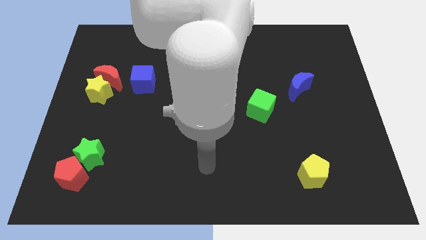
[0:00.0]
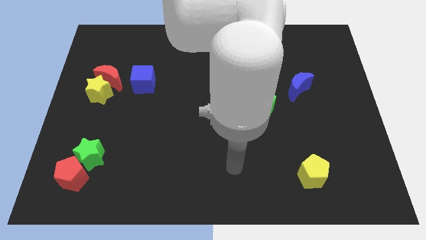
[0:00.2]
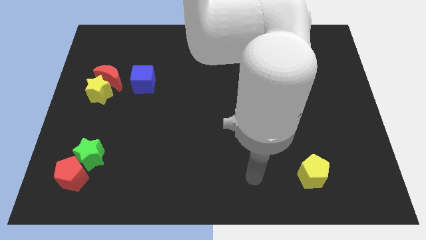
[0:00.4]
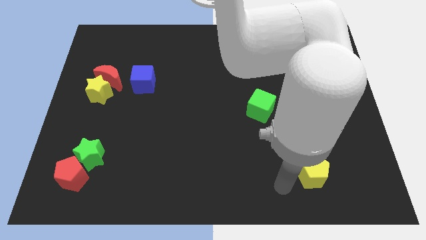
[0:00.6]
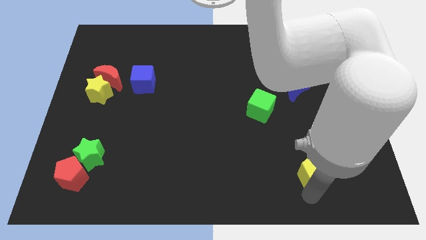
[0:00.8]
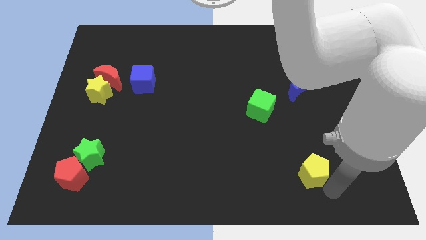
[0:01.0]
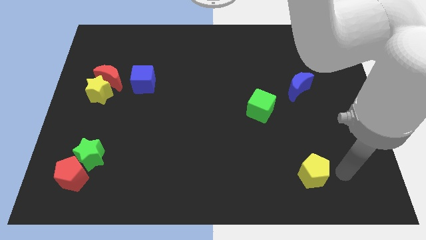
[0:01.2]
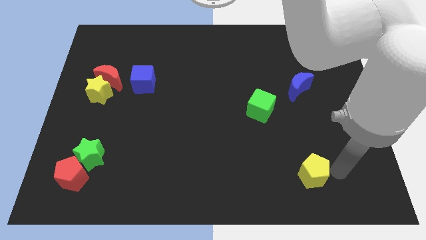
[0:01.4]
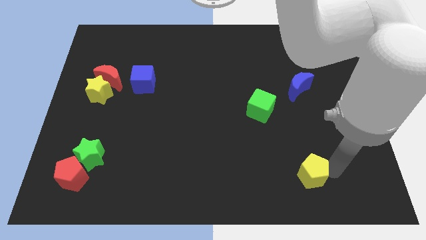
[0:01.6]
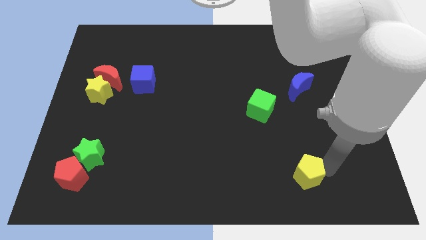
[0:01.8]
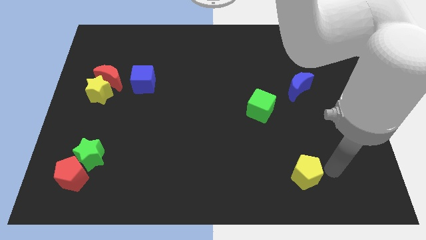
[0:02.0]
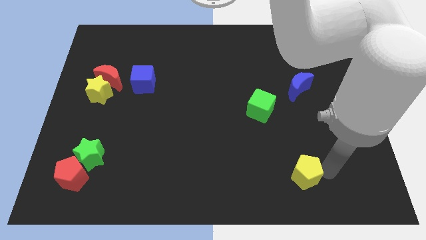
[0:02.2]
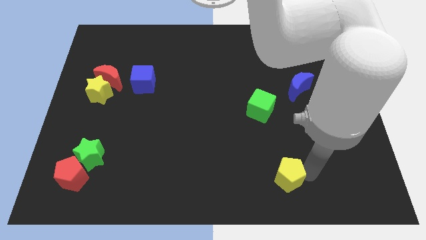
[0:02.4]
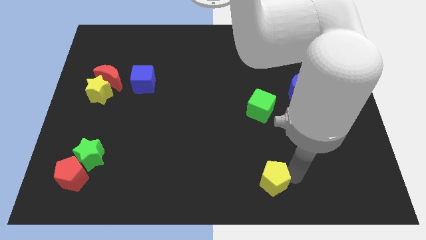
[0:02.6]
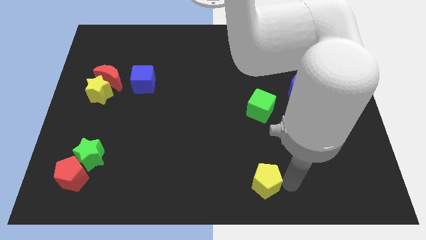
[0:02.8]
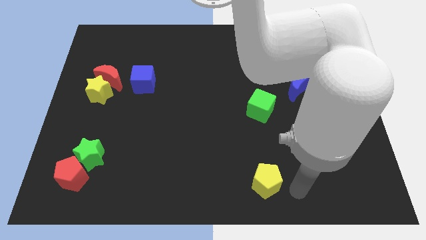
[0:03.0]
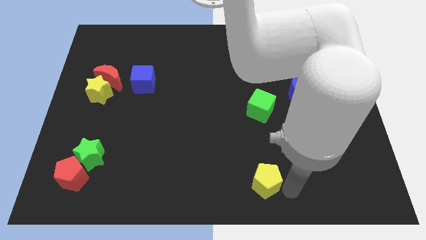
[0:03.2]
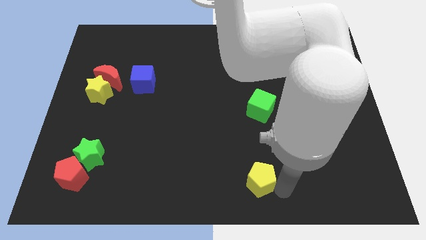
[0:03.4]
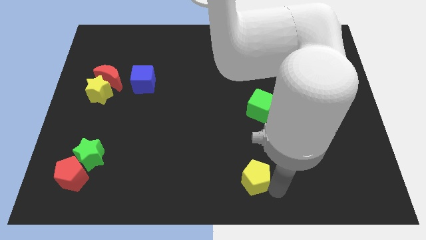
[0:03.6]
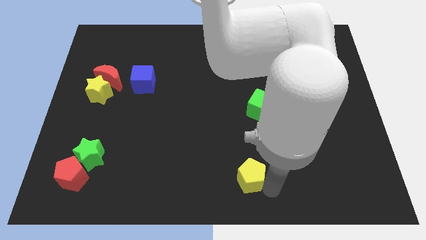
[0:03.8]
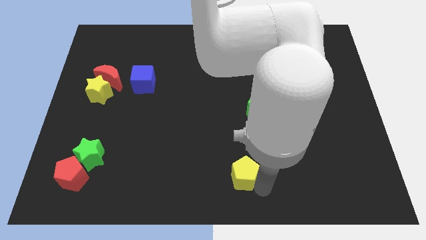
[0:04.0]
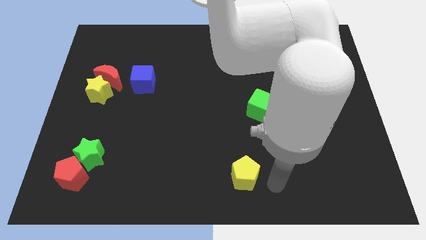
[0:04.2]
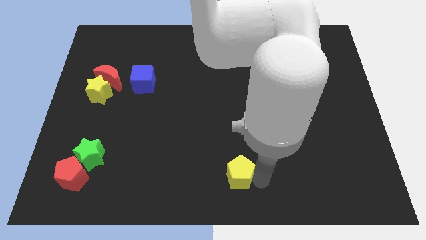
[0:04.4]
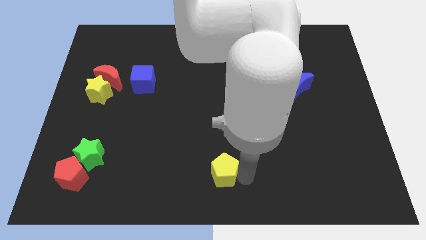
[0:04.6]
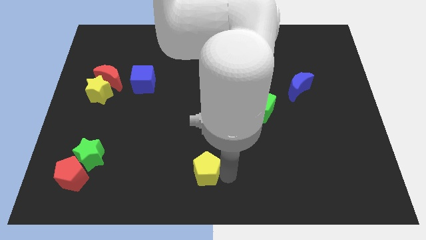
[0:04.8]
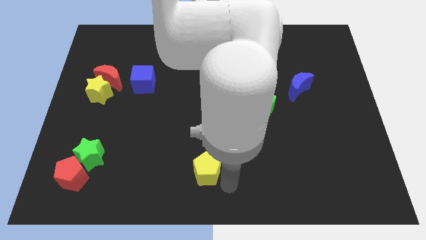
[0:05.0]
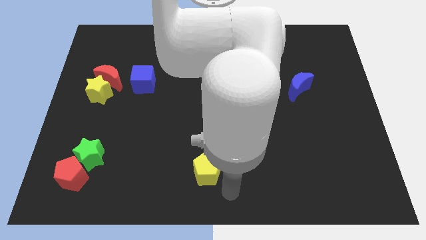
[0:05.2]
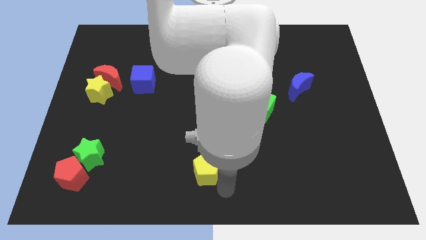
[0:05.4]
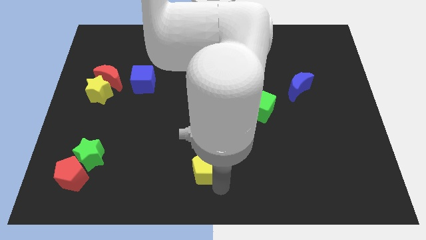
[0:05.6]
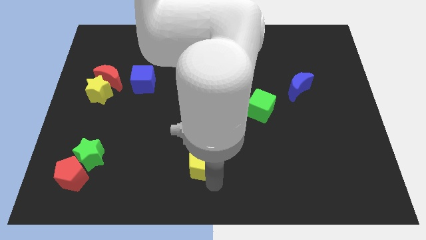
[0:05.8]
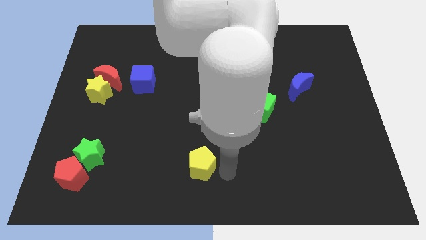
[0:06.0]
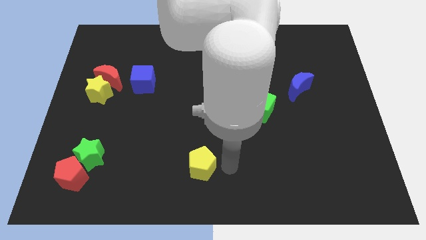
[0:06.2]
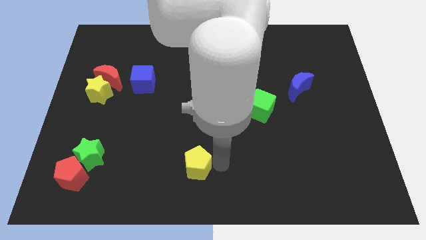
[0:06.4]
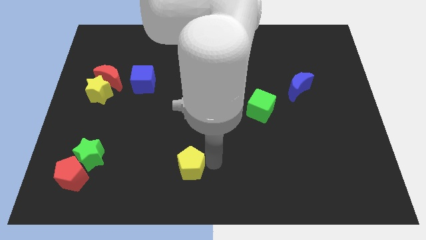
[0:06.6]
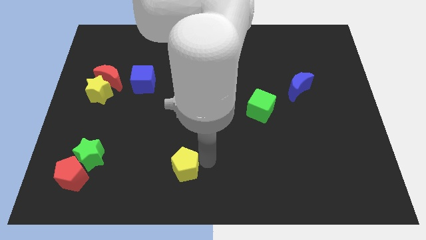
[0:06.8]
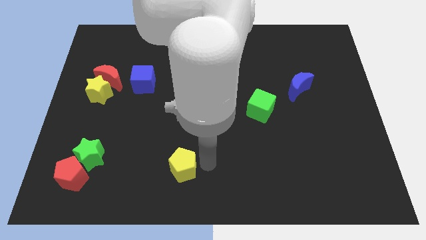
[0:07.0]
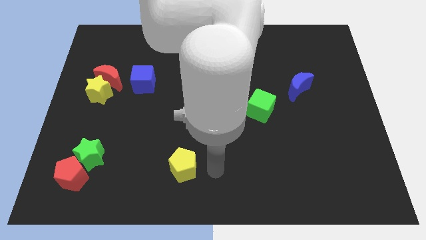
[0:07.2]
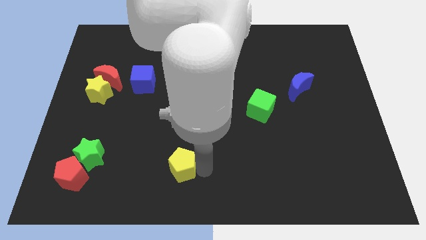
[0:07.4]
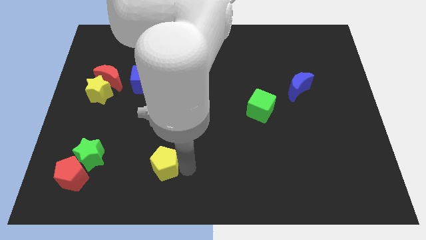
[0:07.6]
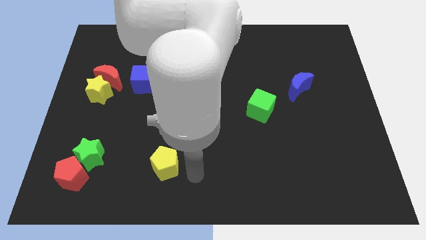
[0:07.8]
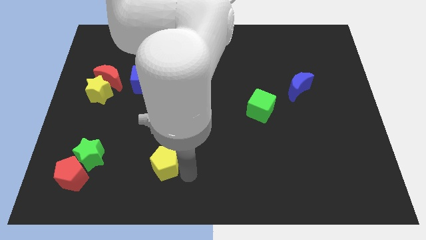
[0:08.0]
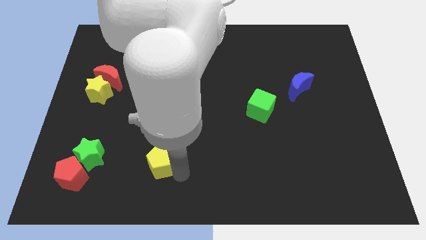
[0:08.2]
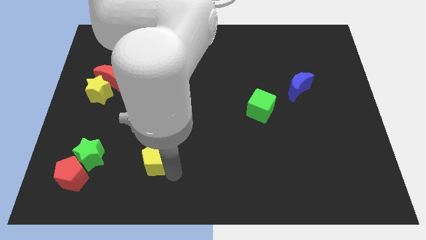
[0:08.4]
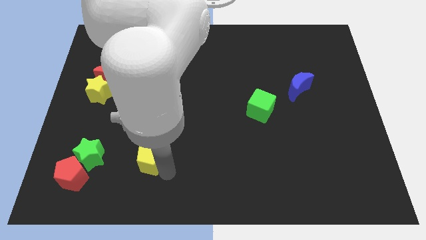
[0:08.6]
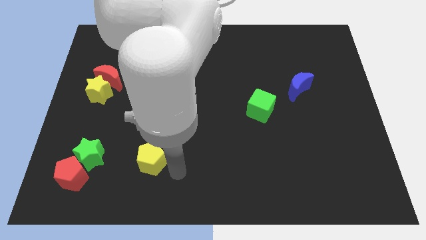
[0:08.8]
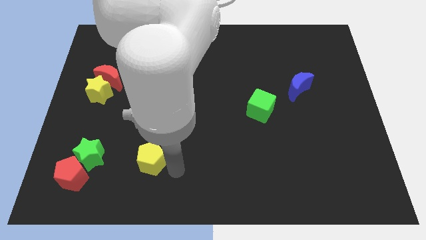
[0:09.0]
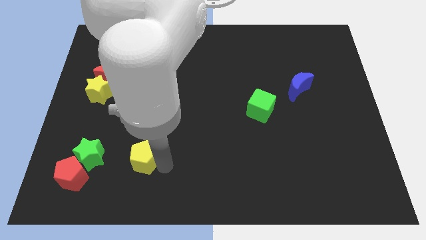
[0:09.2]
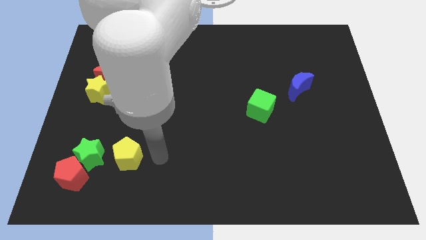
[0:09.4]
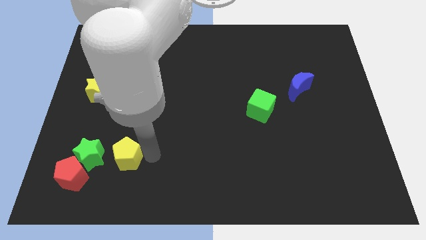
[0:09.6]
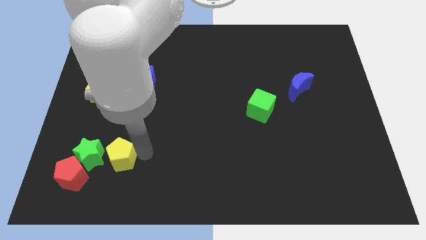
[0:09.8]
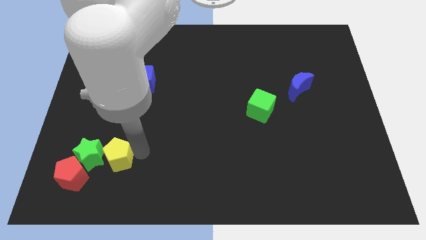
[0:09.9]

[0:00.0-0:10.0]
move the yellow pentagon next to the green star

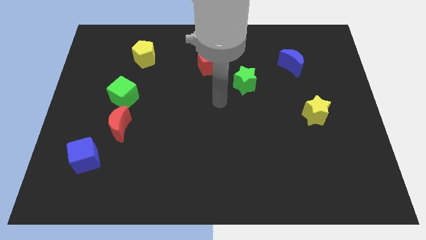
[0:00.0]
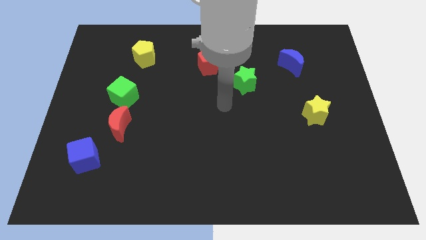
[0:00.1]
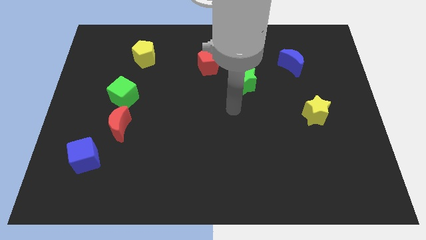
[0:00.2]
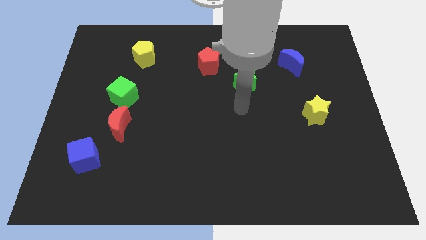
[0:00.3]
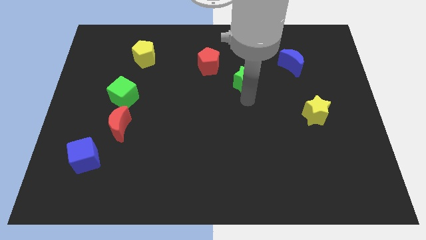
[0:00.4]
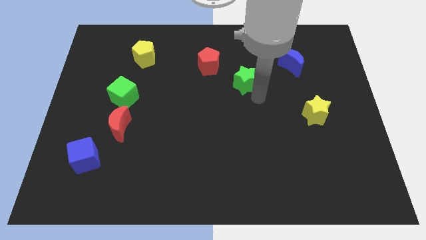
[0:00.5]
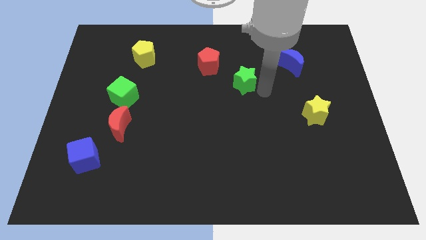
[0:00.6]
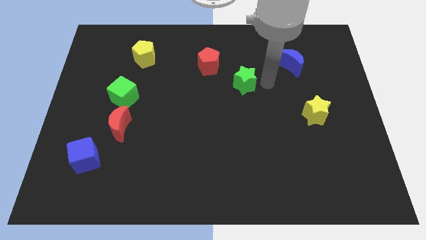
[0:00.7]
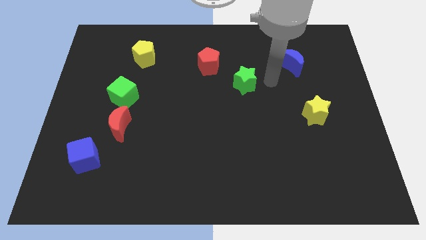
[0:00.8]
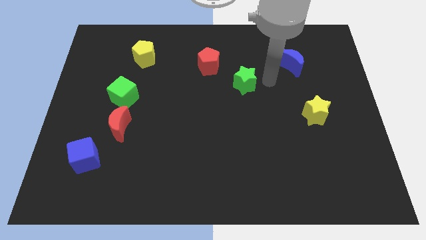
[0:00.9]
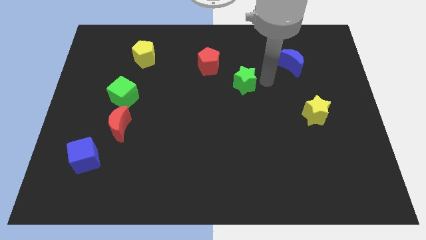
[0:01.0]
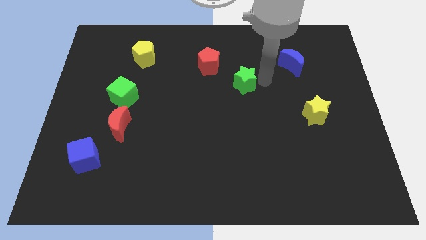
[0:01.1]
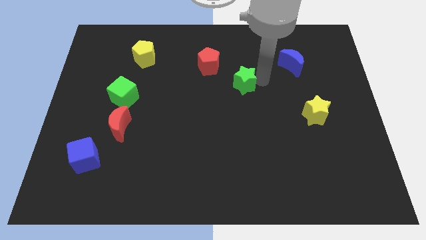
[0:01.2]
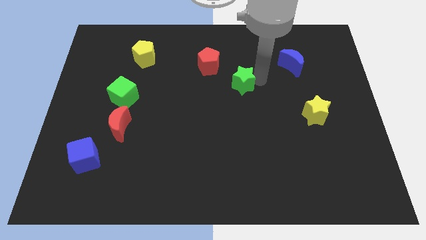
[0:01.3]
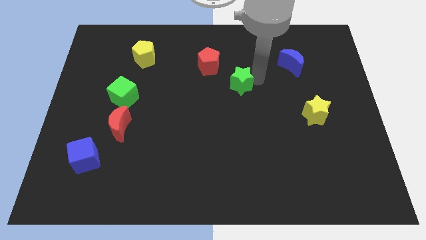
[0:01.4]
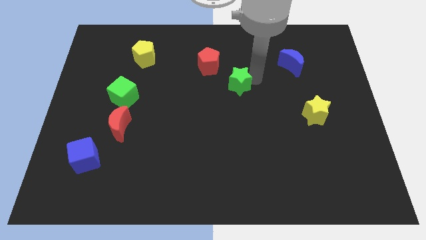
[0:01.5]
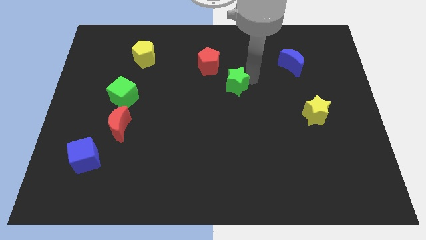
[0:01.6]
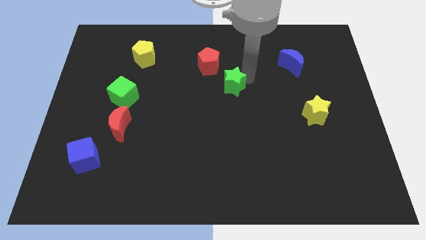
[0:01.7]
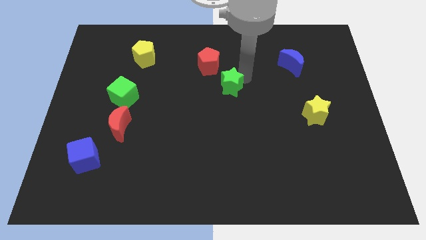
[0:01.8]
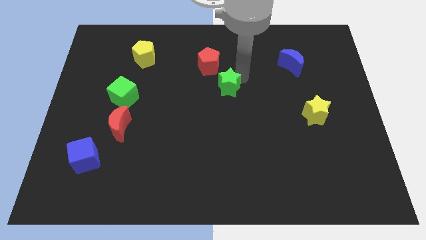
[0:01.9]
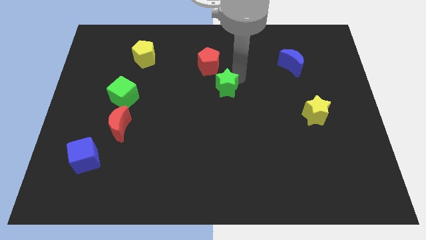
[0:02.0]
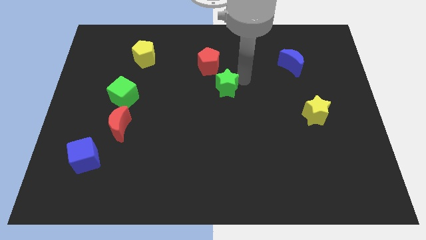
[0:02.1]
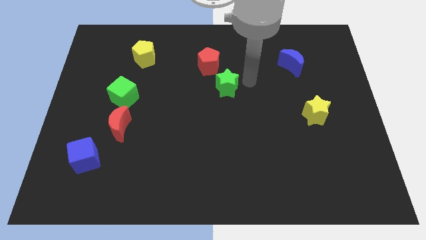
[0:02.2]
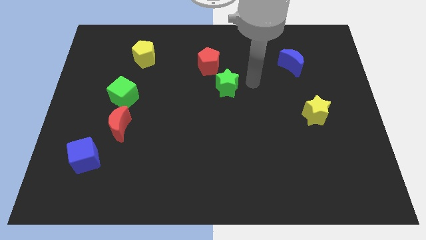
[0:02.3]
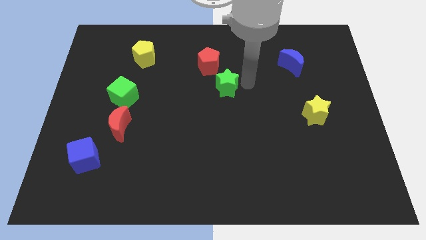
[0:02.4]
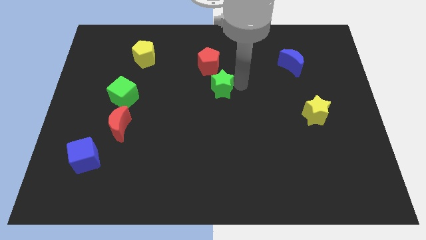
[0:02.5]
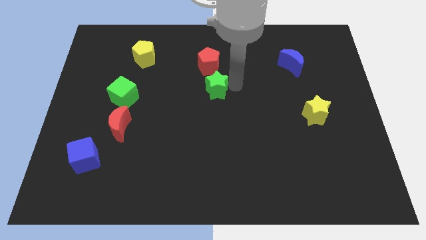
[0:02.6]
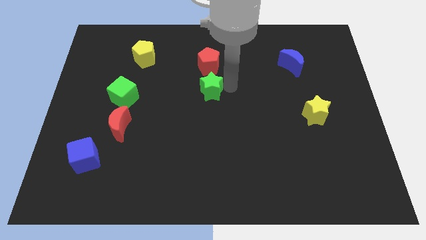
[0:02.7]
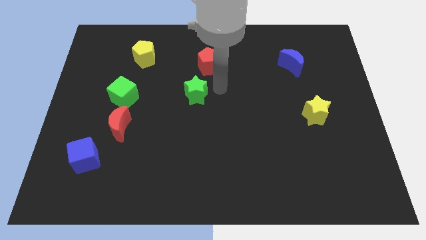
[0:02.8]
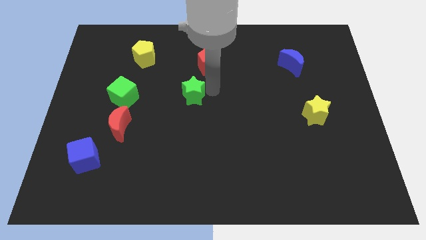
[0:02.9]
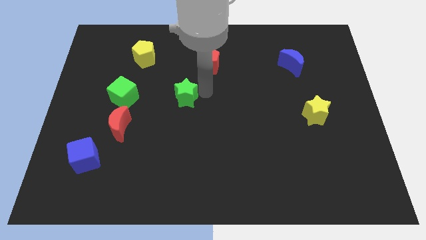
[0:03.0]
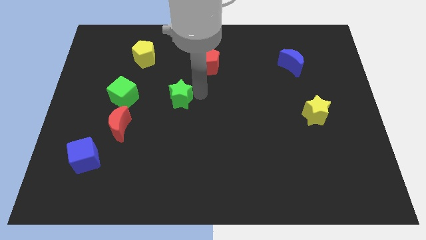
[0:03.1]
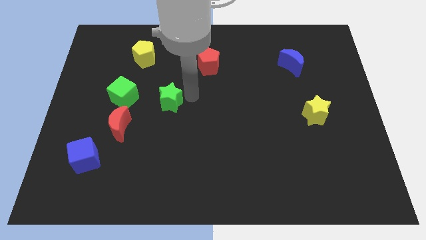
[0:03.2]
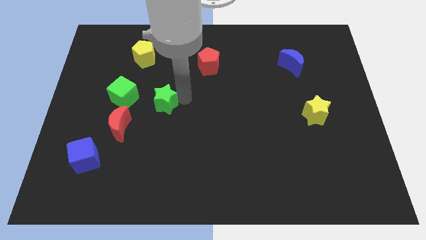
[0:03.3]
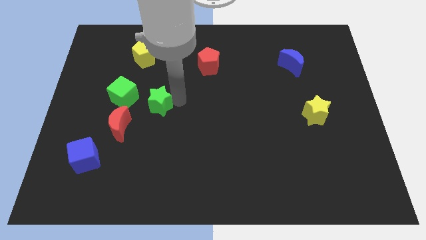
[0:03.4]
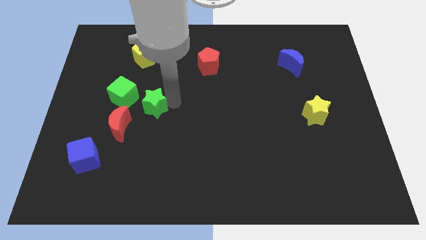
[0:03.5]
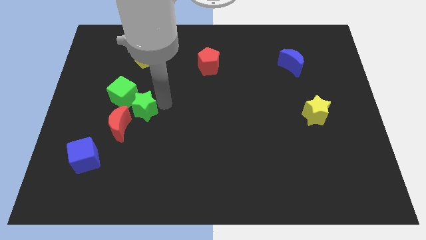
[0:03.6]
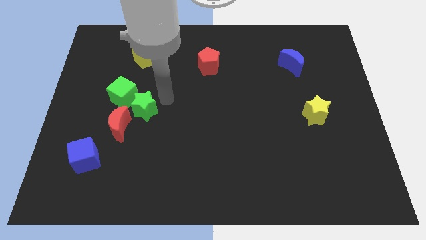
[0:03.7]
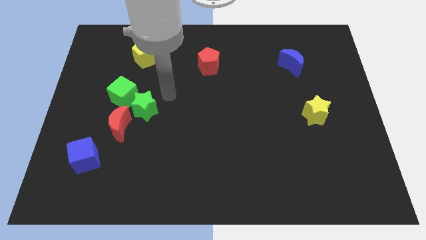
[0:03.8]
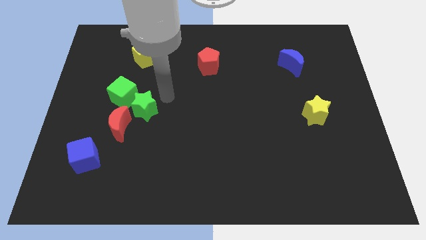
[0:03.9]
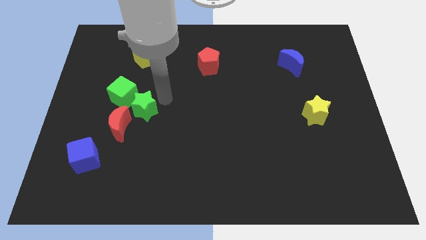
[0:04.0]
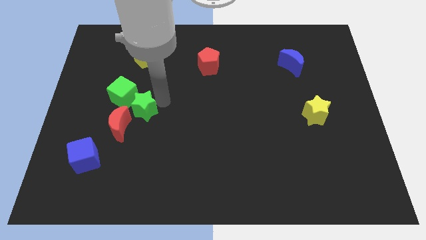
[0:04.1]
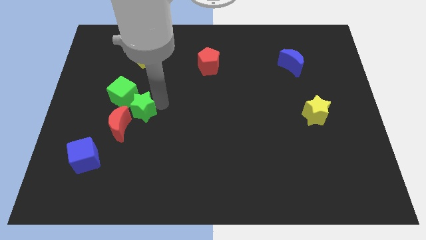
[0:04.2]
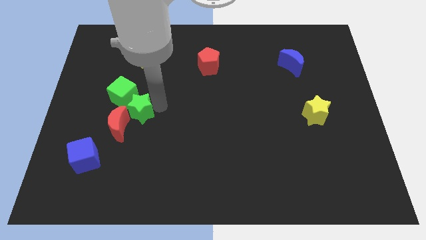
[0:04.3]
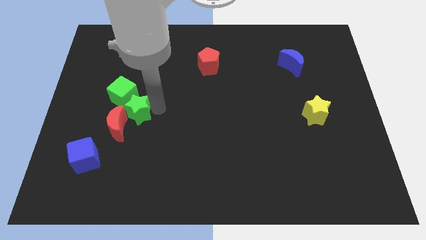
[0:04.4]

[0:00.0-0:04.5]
push the green star towards the red moon
